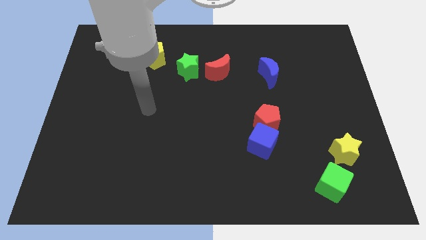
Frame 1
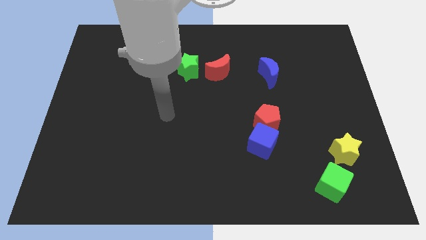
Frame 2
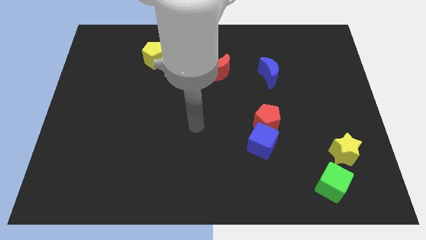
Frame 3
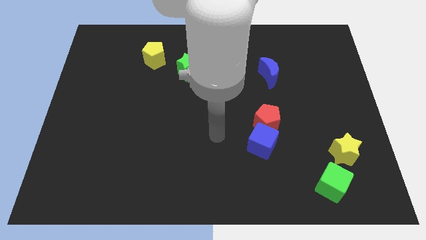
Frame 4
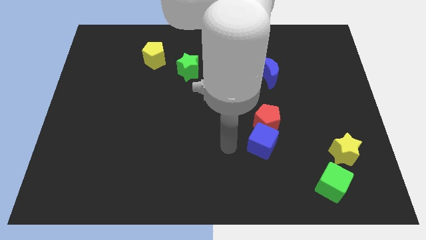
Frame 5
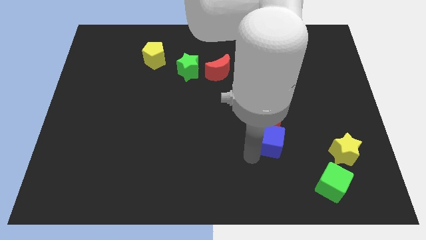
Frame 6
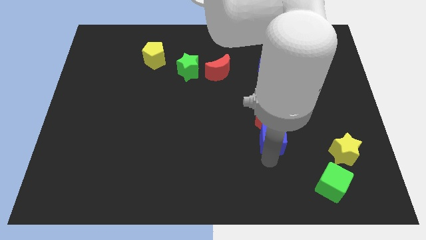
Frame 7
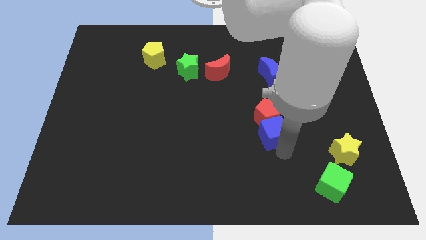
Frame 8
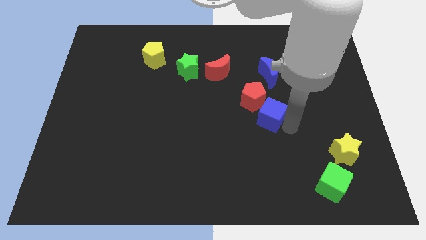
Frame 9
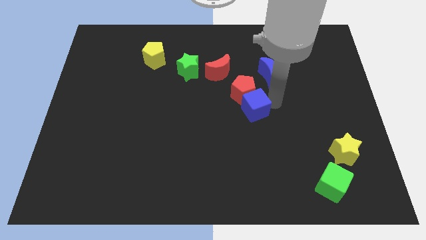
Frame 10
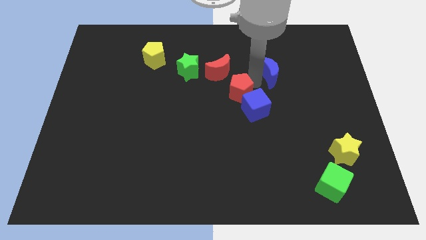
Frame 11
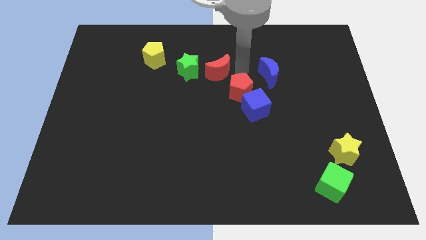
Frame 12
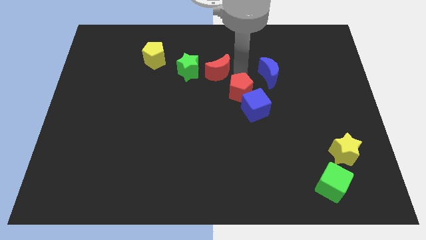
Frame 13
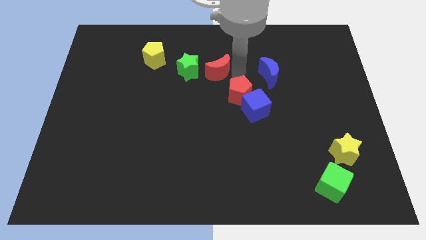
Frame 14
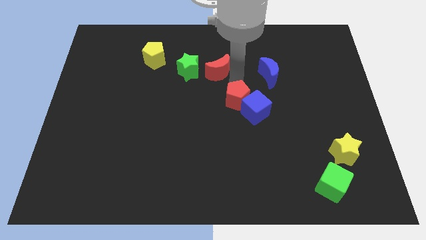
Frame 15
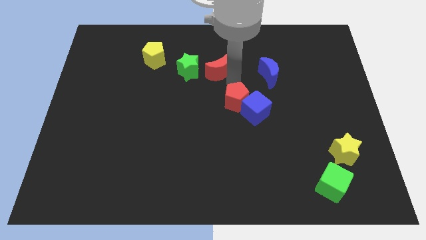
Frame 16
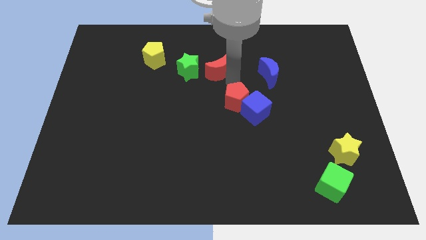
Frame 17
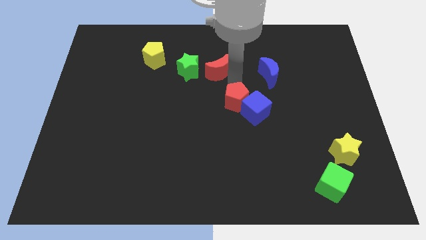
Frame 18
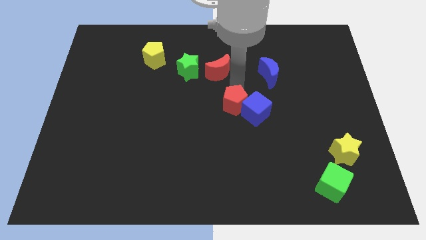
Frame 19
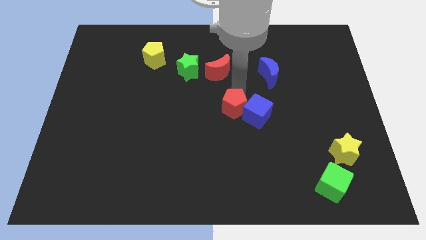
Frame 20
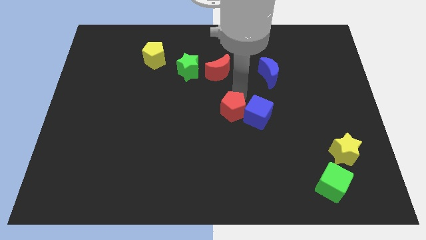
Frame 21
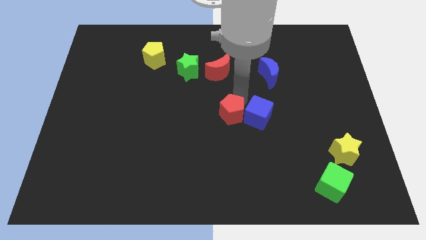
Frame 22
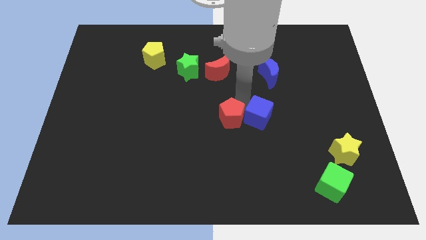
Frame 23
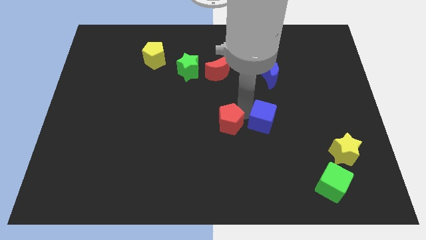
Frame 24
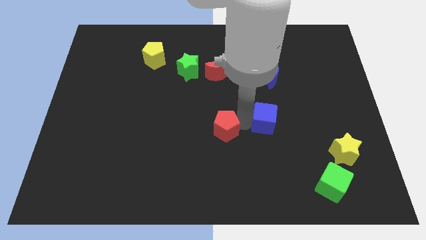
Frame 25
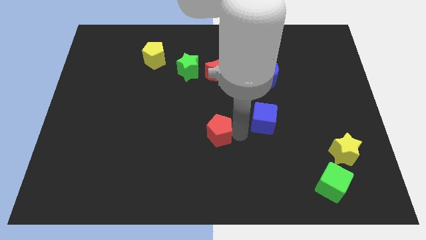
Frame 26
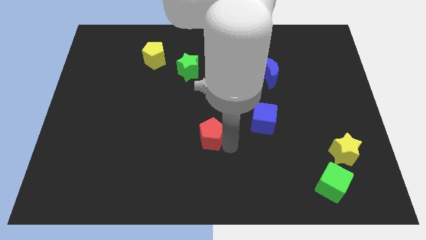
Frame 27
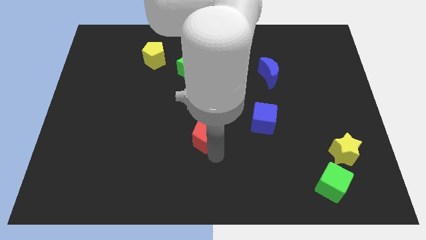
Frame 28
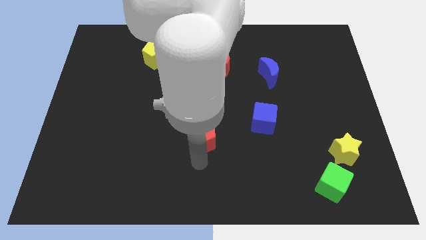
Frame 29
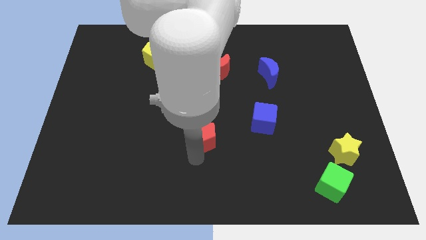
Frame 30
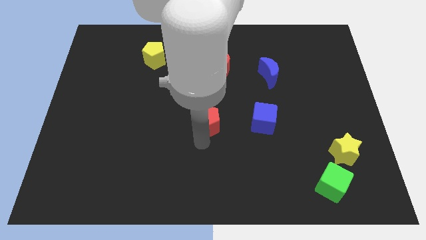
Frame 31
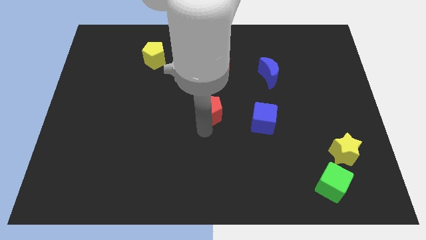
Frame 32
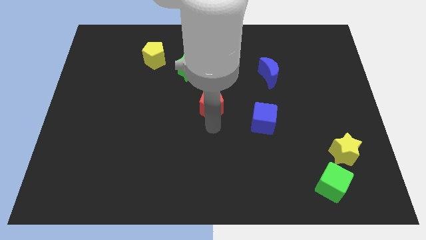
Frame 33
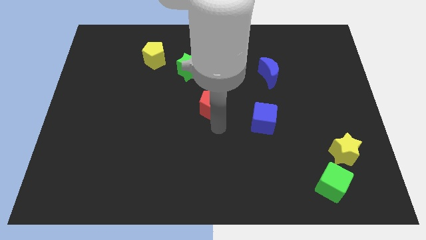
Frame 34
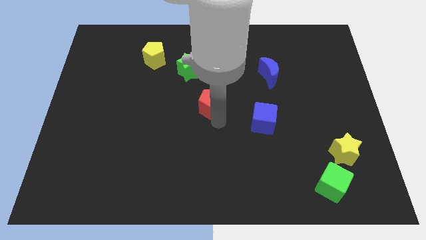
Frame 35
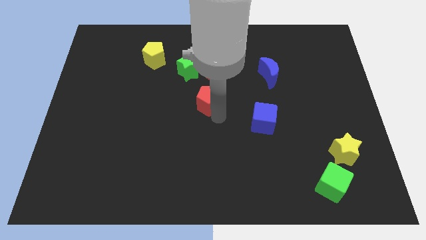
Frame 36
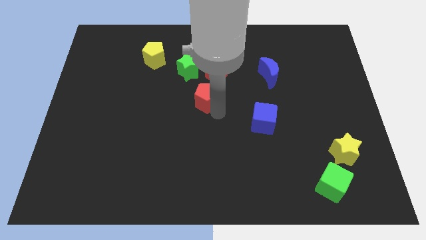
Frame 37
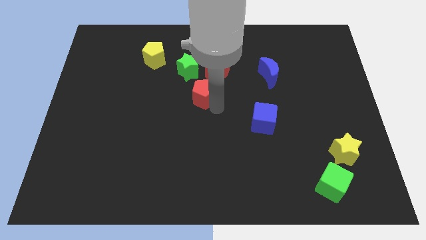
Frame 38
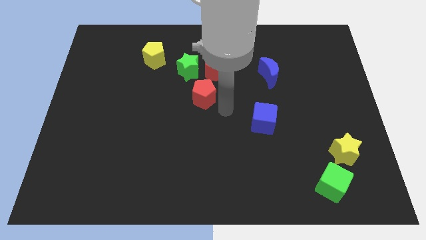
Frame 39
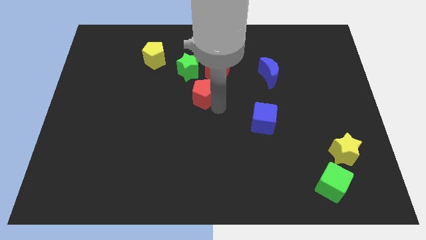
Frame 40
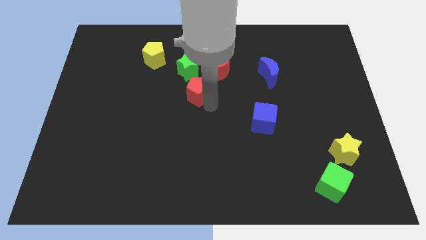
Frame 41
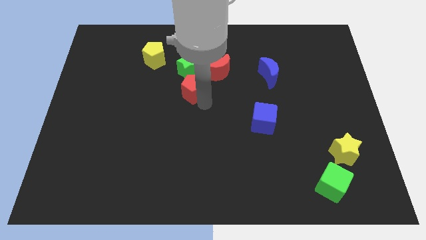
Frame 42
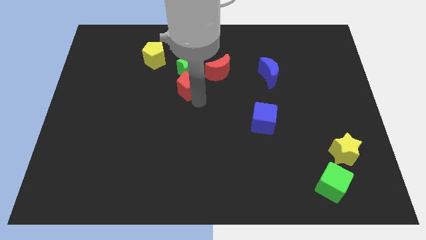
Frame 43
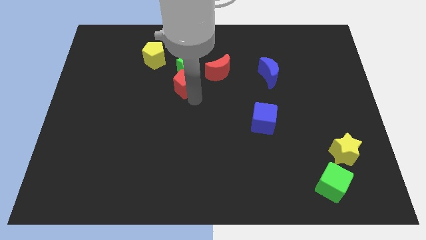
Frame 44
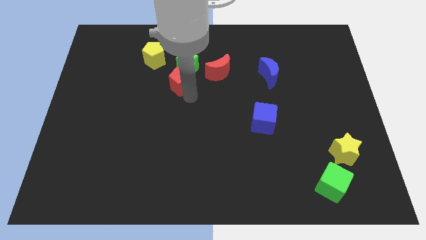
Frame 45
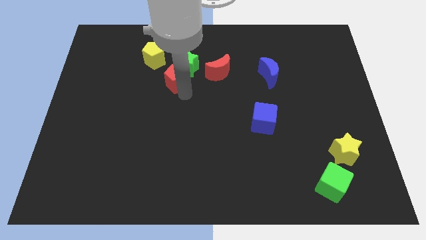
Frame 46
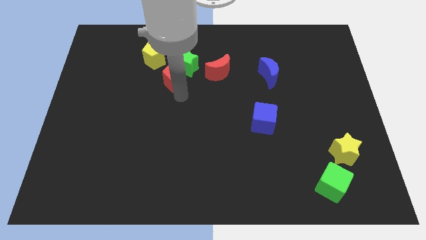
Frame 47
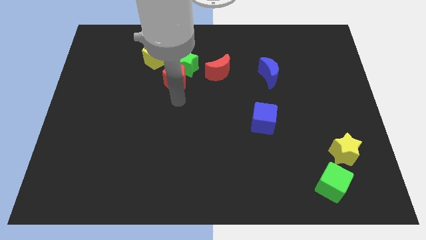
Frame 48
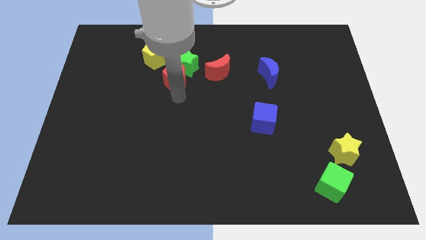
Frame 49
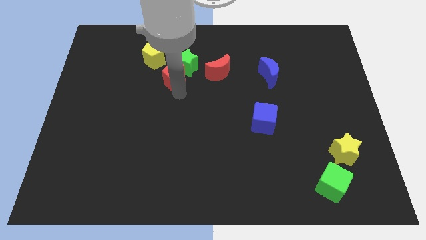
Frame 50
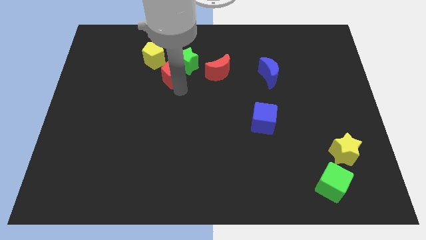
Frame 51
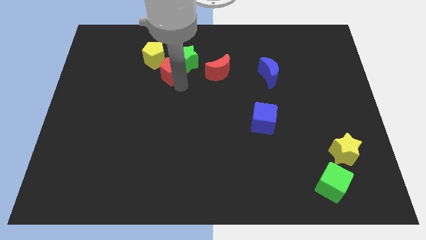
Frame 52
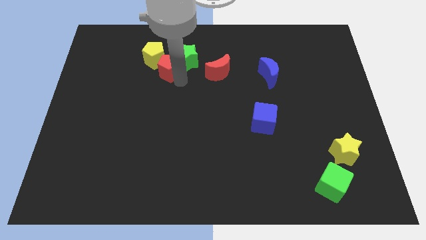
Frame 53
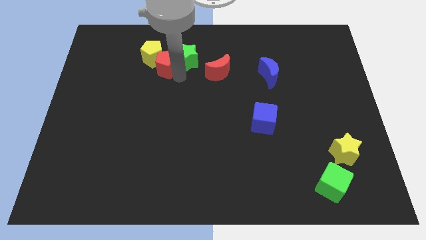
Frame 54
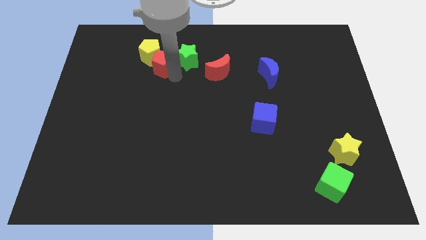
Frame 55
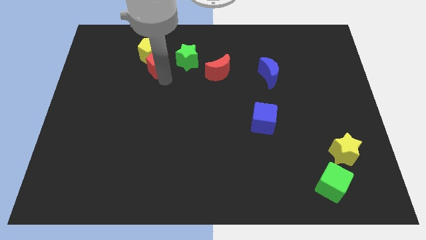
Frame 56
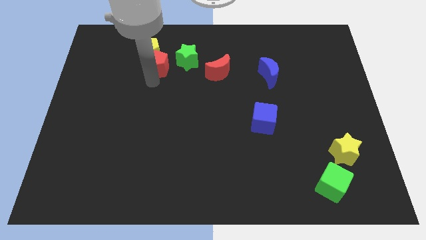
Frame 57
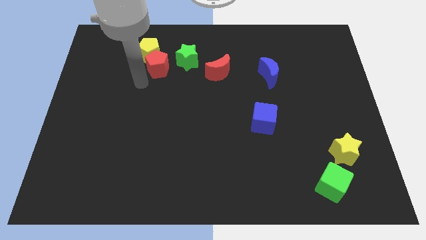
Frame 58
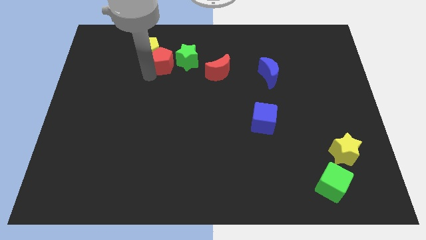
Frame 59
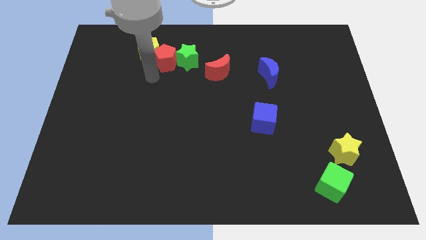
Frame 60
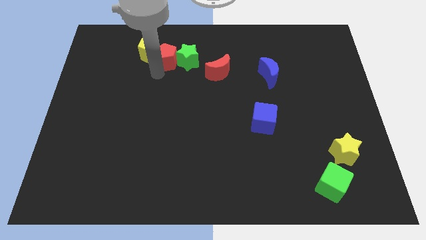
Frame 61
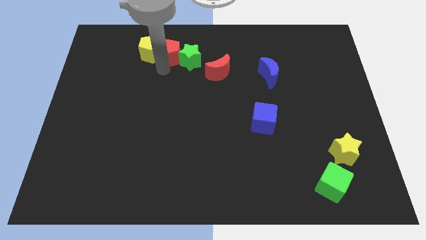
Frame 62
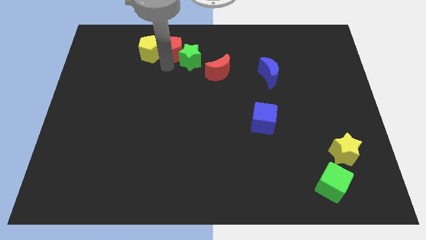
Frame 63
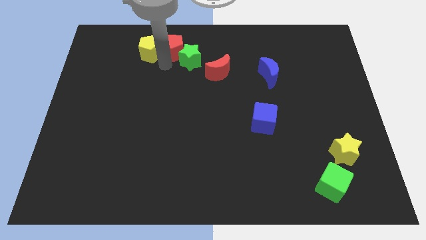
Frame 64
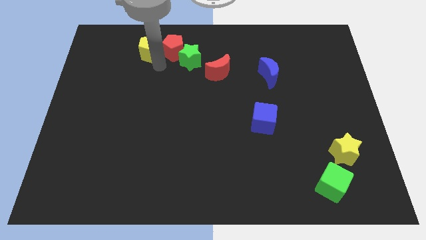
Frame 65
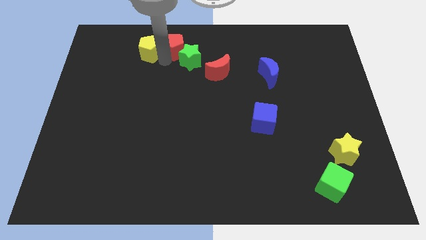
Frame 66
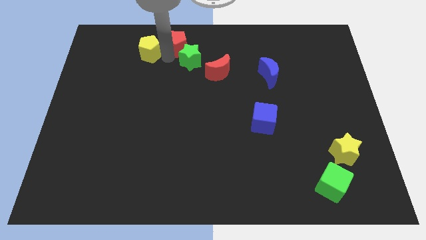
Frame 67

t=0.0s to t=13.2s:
push the red pentagon to the top
